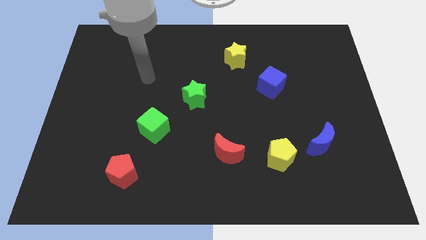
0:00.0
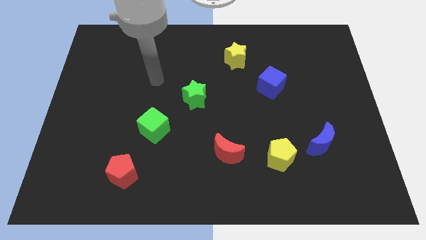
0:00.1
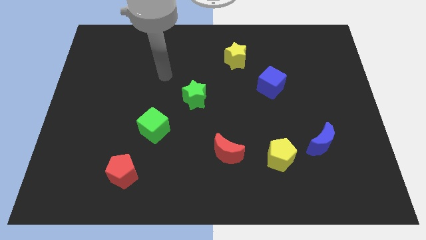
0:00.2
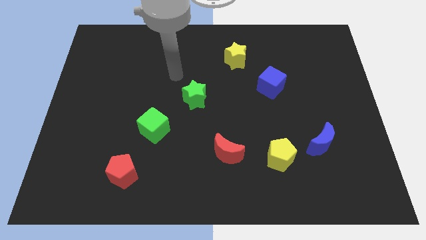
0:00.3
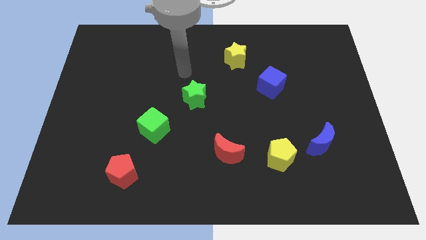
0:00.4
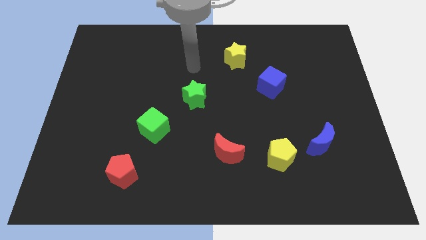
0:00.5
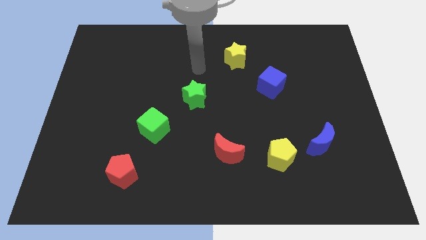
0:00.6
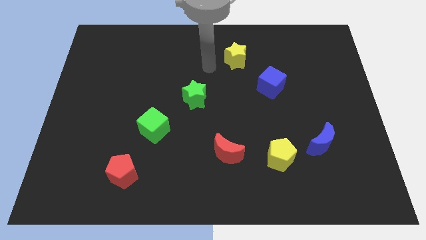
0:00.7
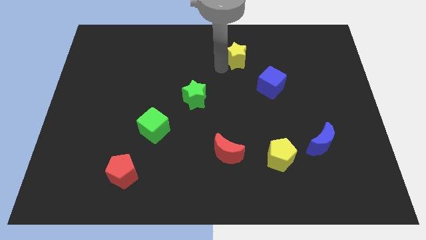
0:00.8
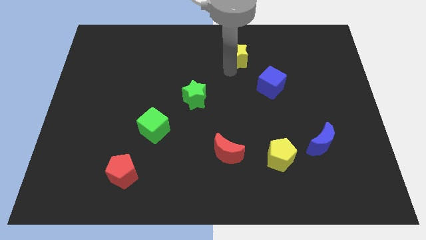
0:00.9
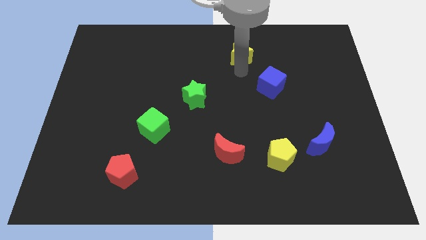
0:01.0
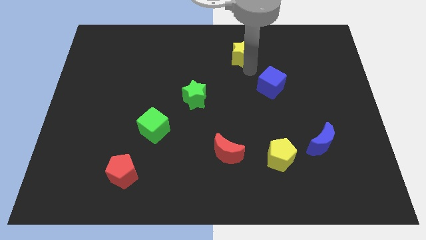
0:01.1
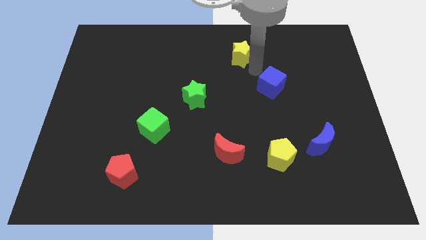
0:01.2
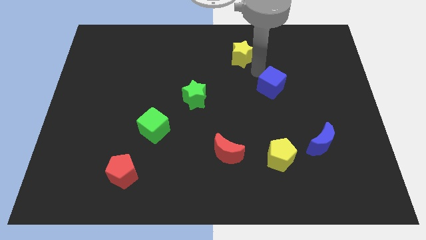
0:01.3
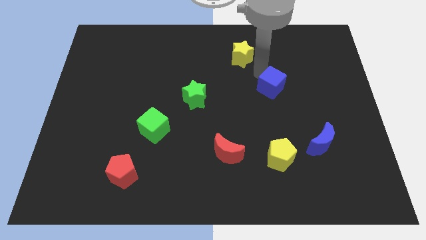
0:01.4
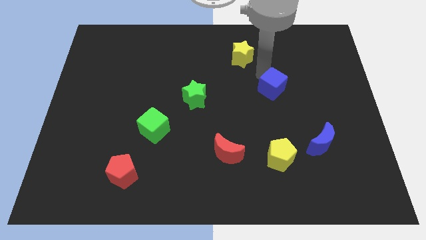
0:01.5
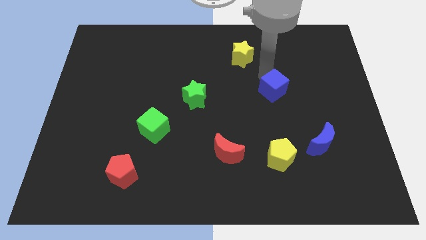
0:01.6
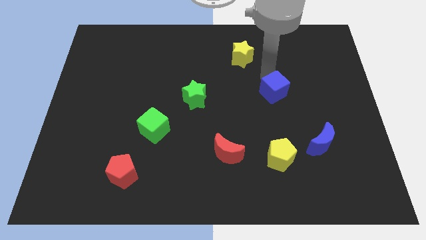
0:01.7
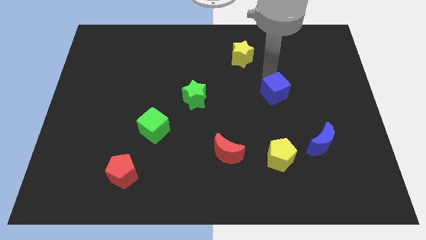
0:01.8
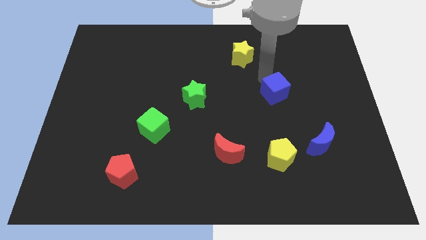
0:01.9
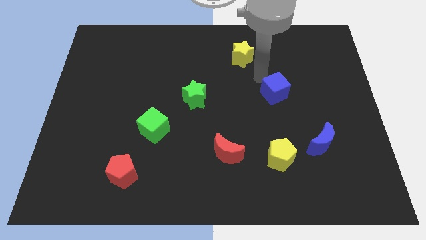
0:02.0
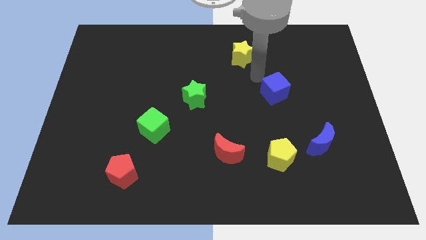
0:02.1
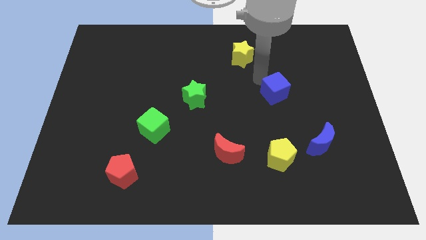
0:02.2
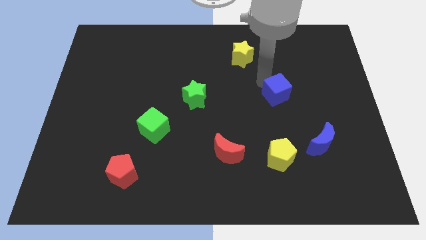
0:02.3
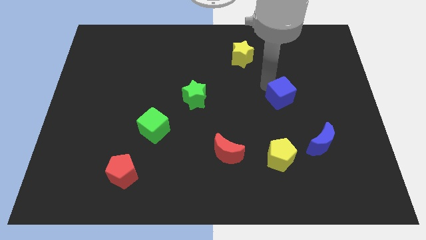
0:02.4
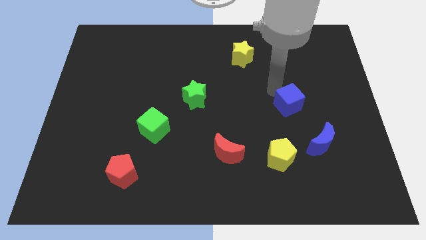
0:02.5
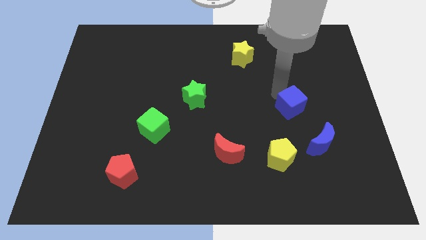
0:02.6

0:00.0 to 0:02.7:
slightly slide the blue cube down and right

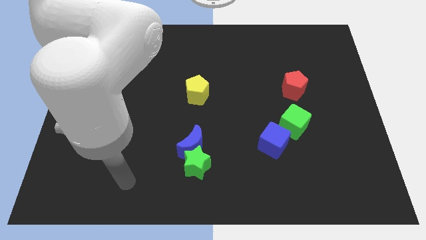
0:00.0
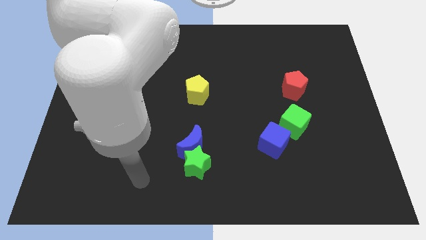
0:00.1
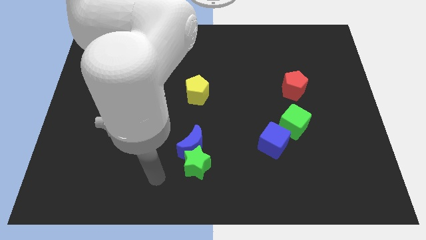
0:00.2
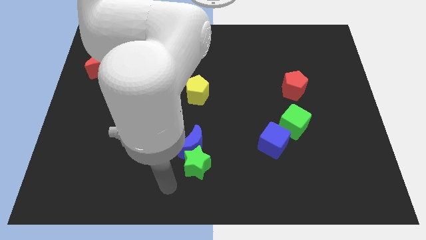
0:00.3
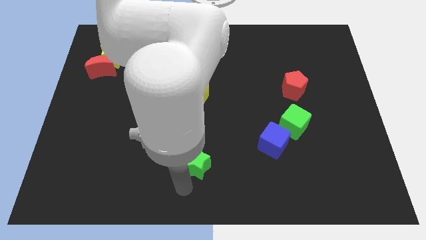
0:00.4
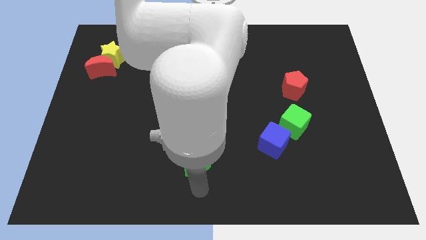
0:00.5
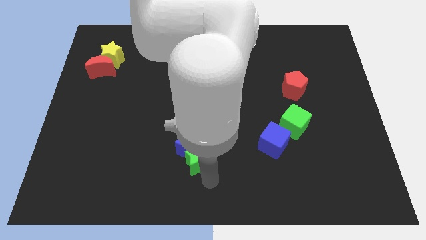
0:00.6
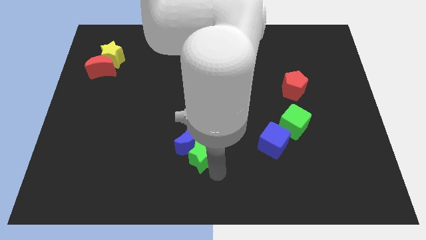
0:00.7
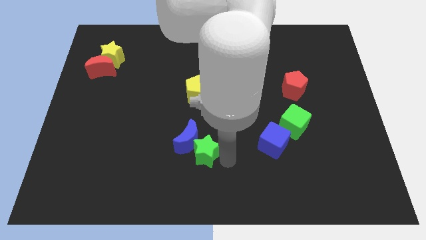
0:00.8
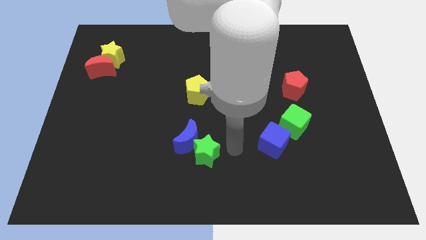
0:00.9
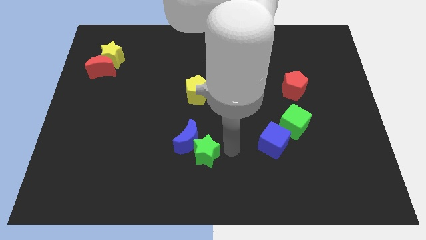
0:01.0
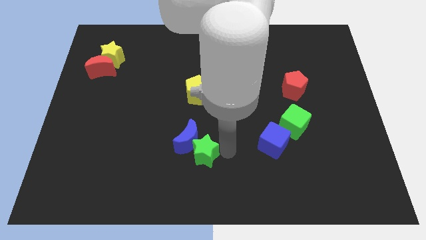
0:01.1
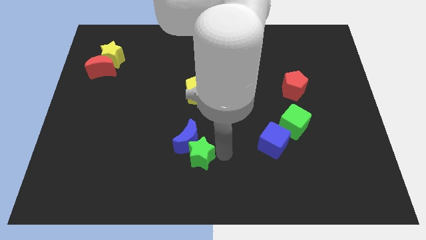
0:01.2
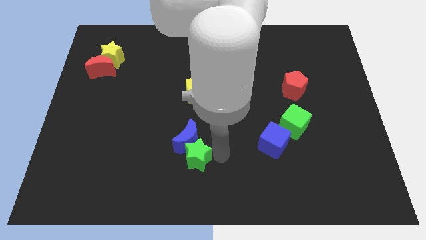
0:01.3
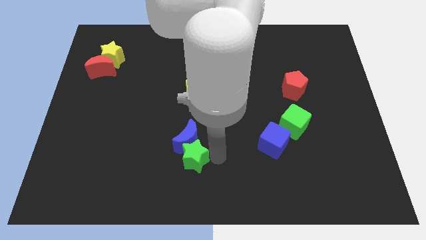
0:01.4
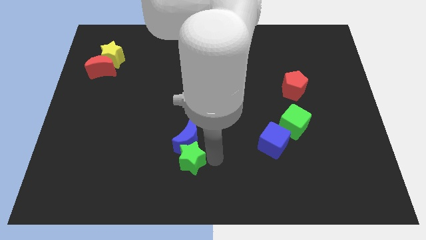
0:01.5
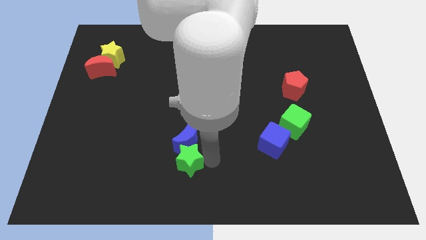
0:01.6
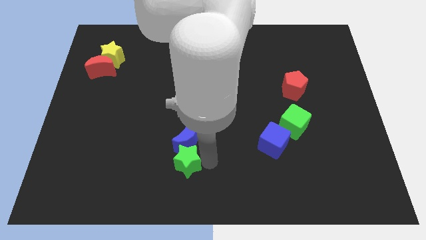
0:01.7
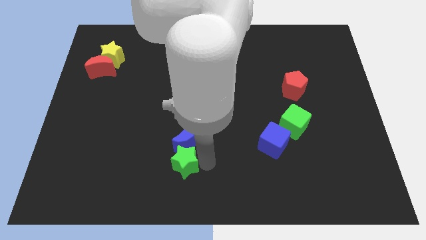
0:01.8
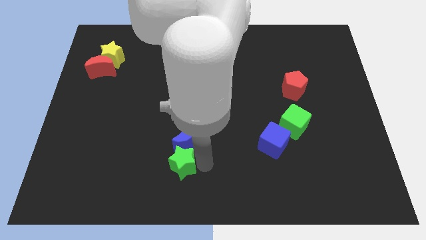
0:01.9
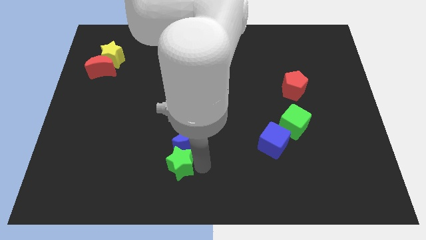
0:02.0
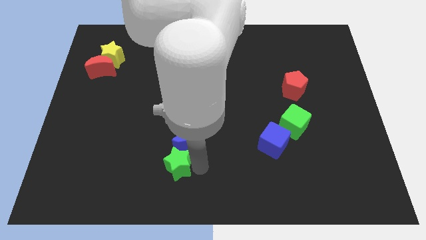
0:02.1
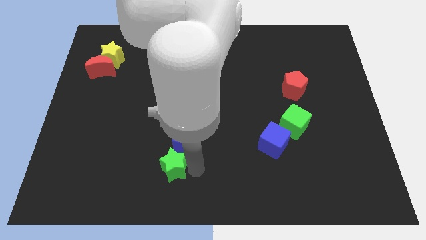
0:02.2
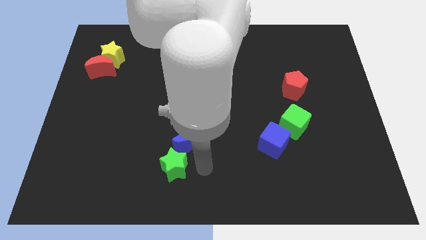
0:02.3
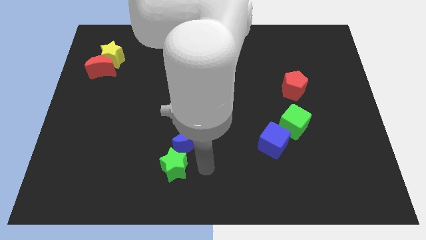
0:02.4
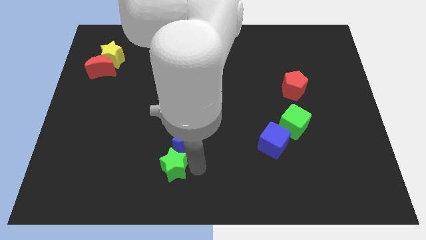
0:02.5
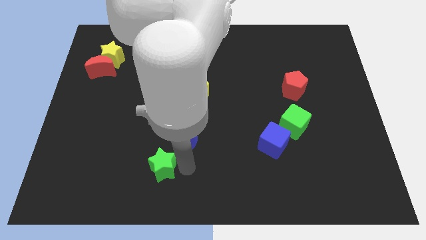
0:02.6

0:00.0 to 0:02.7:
slightly push the green star to the left

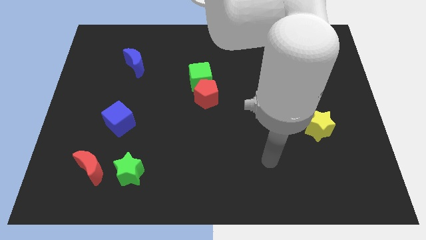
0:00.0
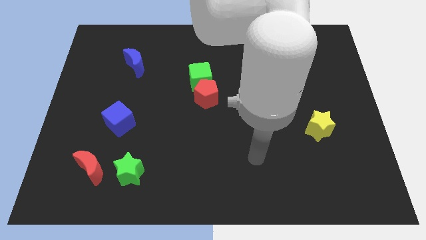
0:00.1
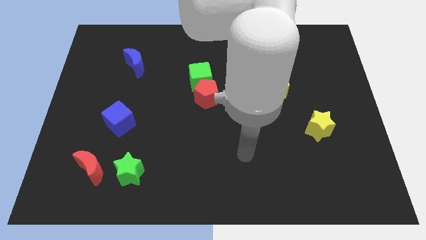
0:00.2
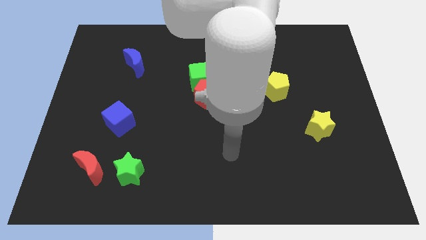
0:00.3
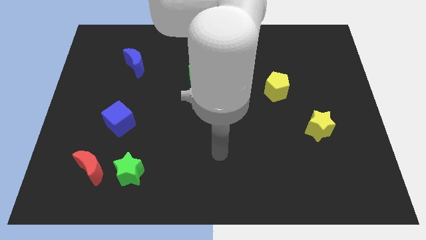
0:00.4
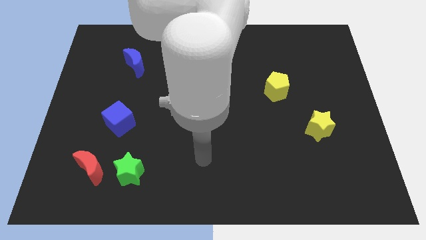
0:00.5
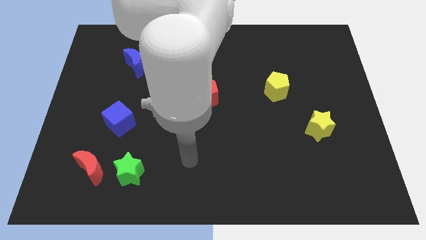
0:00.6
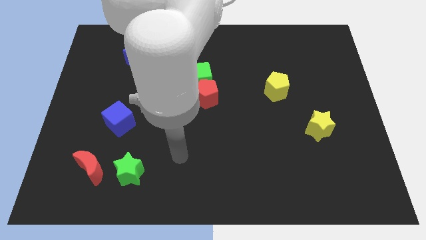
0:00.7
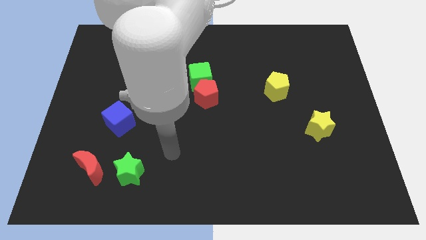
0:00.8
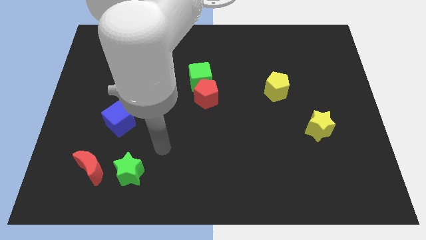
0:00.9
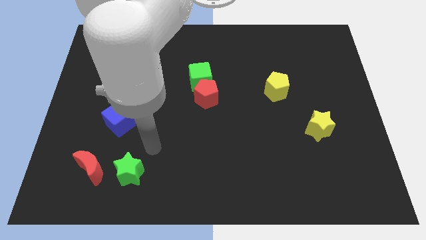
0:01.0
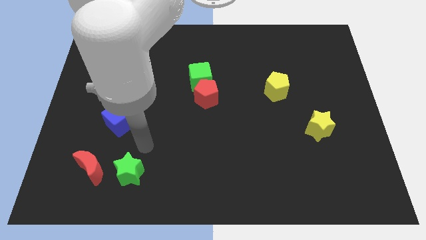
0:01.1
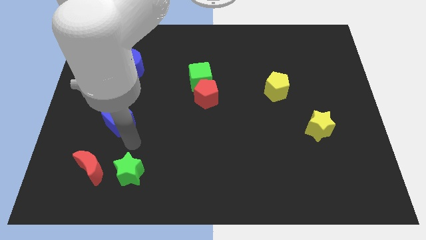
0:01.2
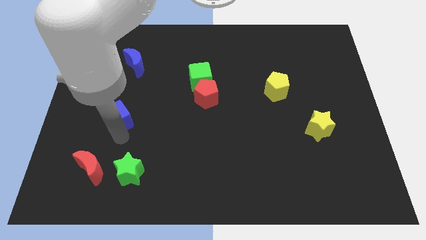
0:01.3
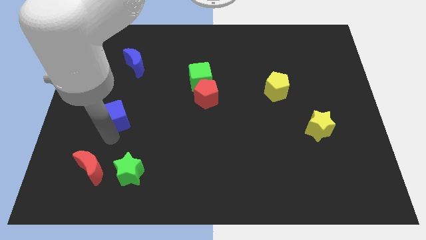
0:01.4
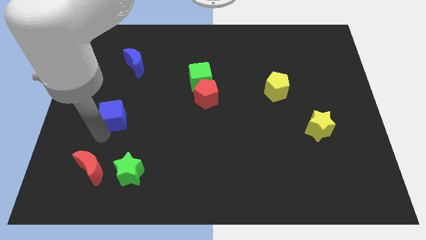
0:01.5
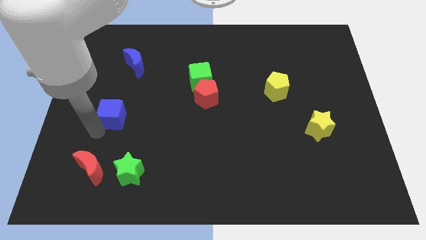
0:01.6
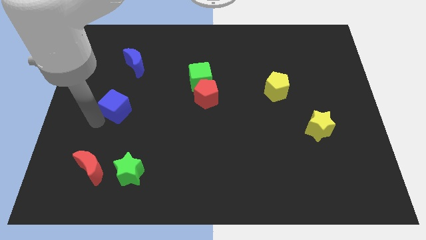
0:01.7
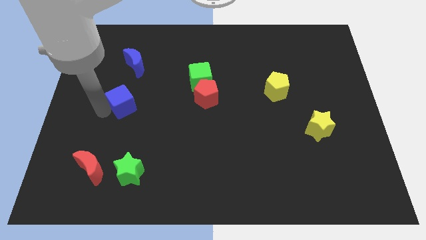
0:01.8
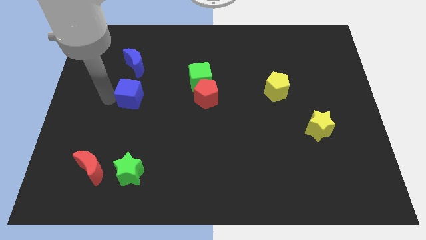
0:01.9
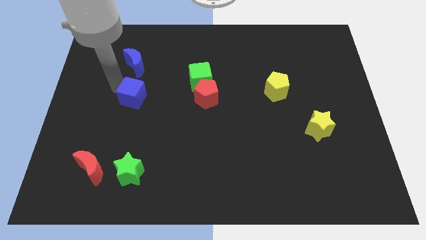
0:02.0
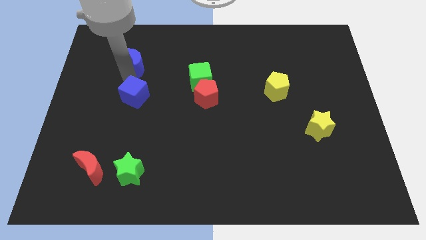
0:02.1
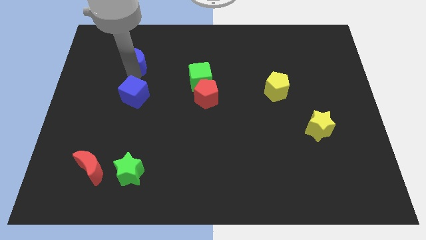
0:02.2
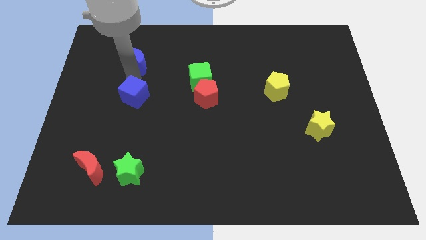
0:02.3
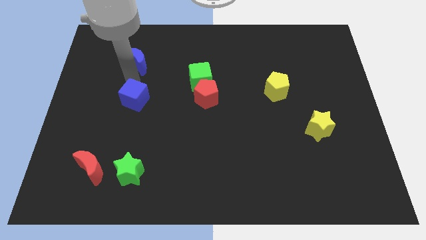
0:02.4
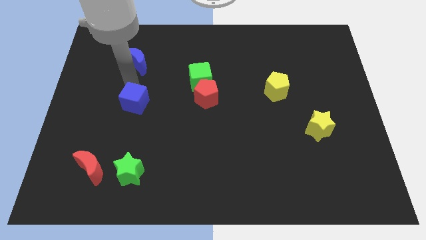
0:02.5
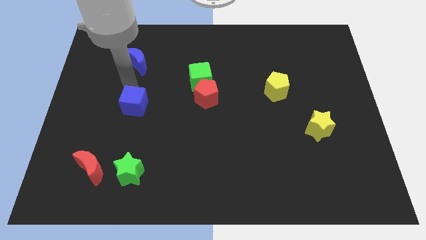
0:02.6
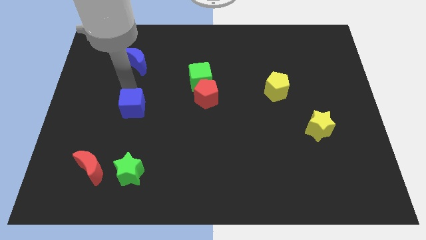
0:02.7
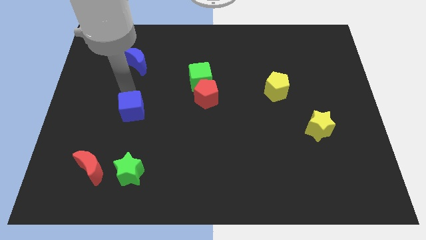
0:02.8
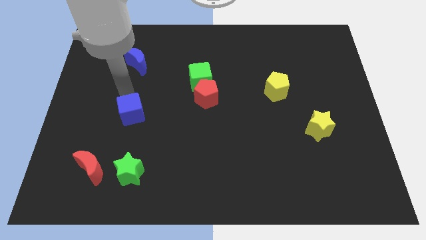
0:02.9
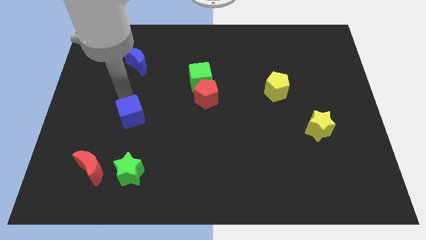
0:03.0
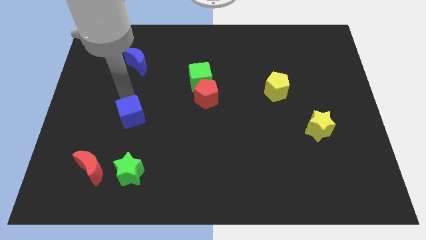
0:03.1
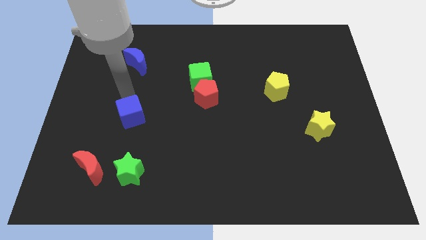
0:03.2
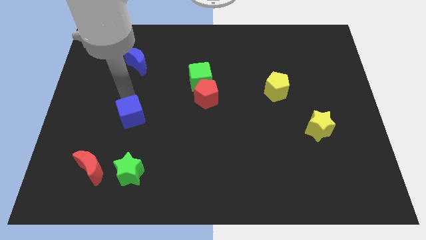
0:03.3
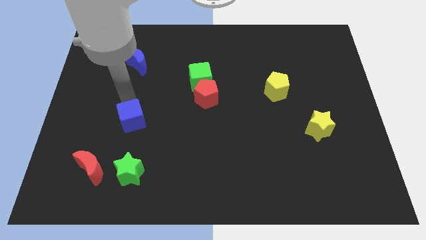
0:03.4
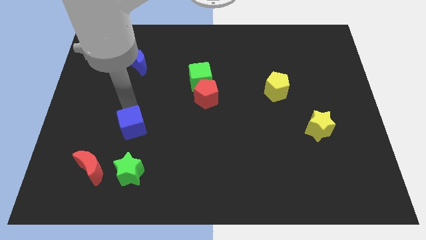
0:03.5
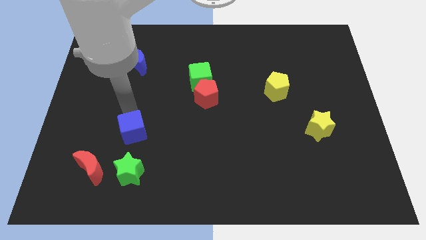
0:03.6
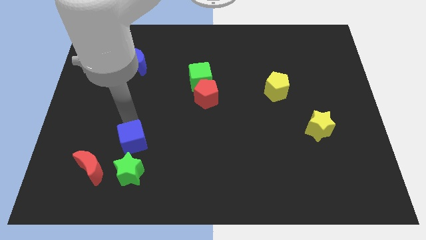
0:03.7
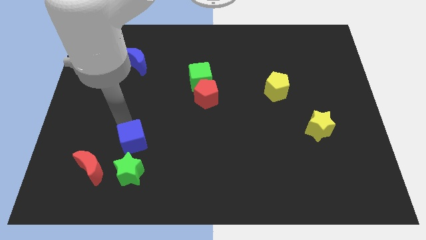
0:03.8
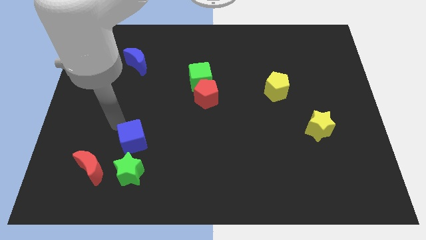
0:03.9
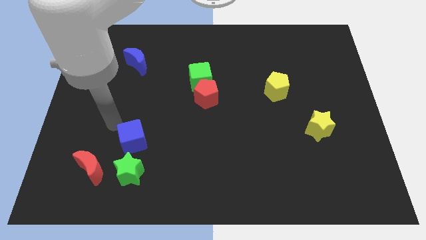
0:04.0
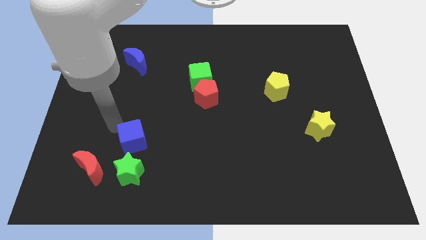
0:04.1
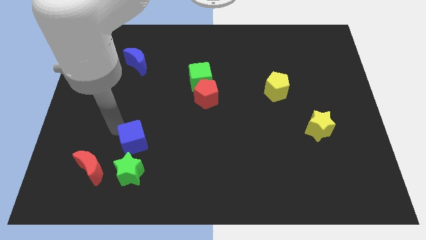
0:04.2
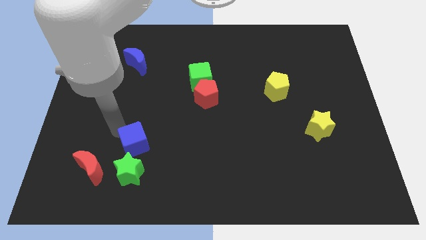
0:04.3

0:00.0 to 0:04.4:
slightly slide the blue cube diagonally down and right
